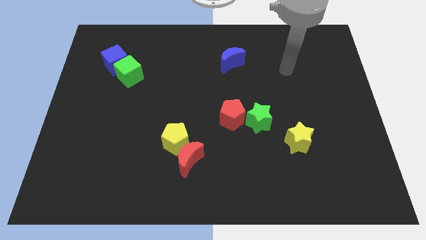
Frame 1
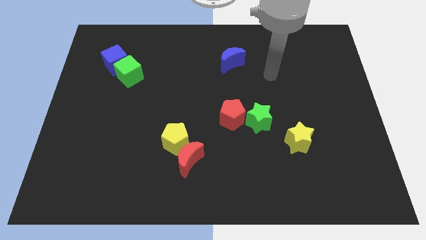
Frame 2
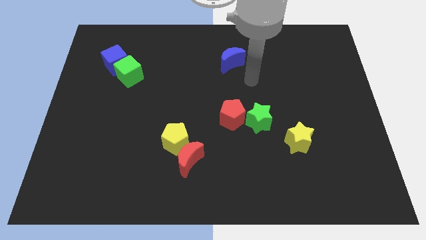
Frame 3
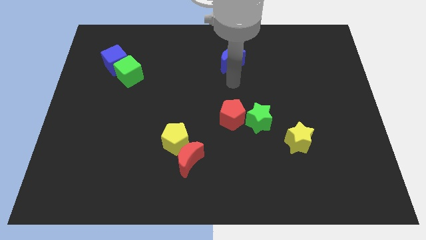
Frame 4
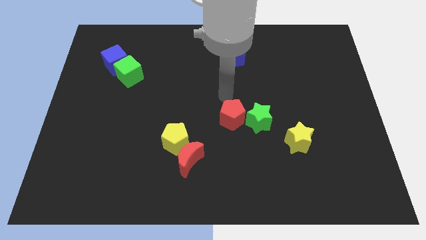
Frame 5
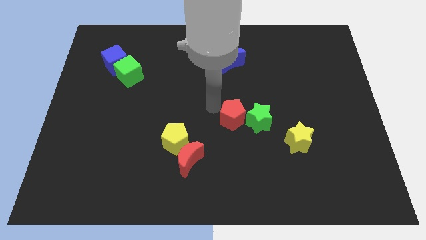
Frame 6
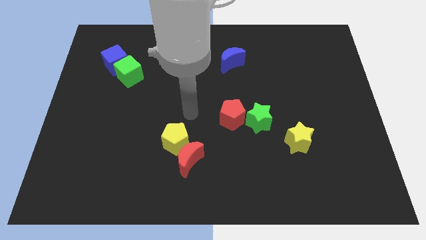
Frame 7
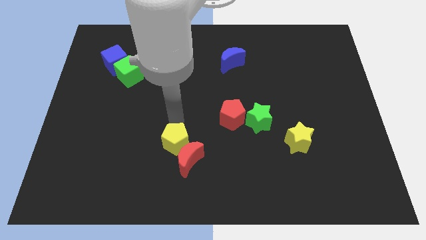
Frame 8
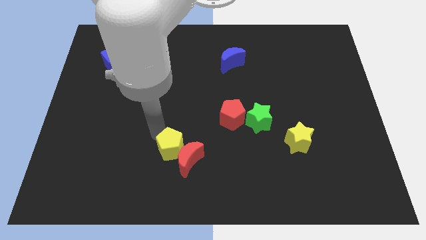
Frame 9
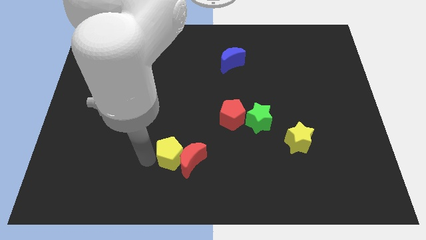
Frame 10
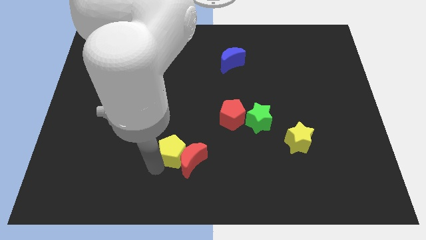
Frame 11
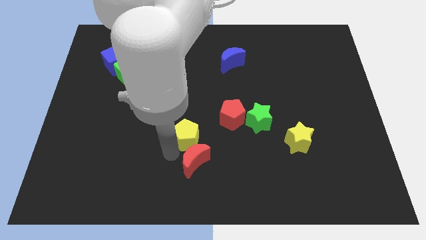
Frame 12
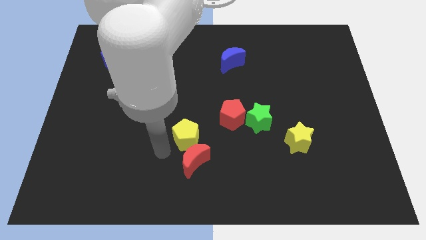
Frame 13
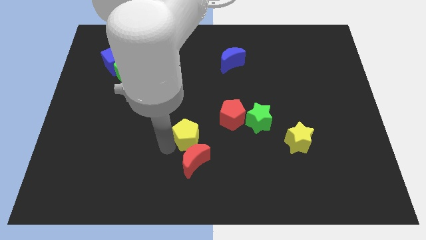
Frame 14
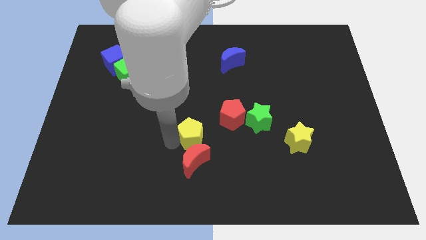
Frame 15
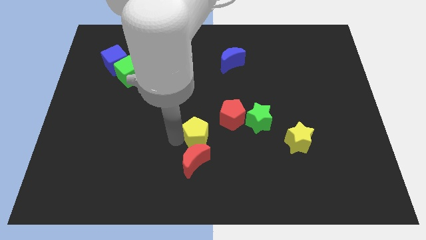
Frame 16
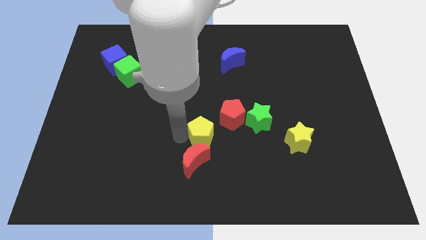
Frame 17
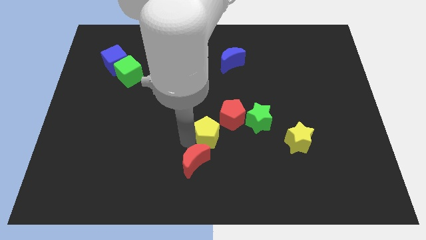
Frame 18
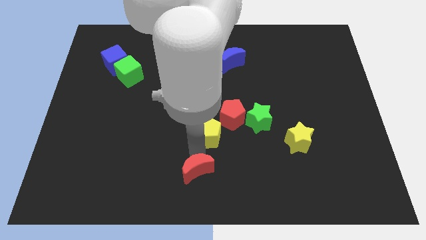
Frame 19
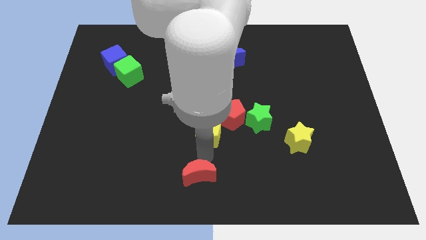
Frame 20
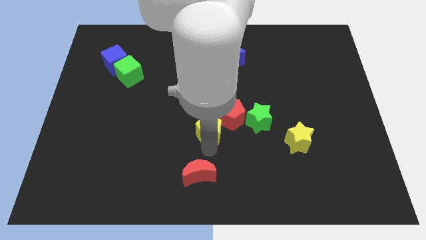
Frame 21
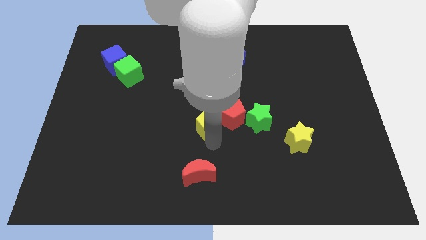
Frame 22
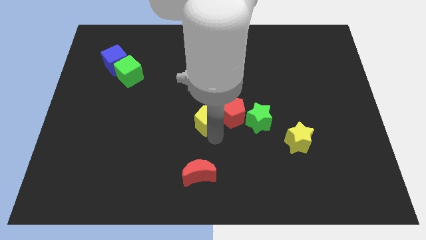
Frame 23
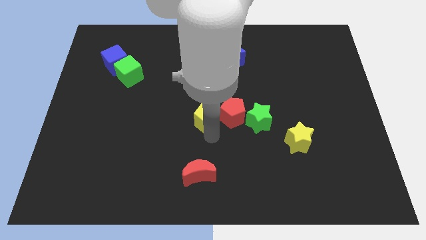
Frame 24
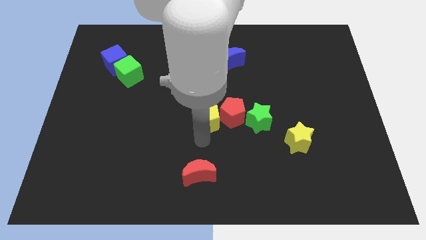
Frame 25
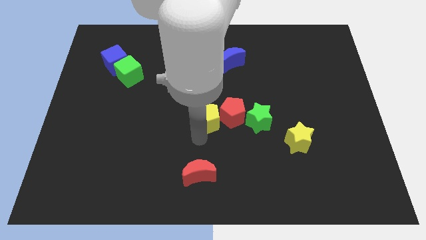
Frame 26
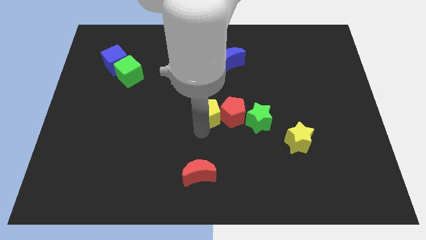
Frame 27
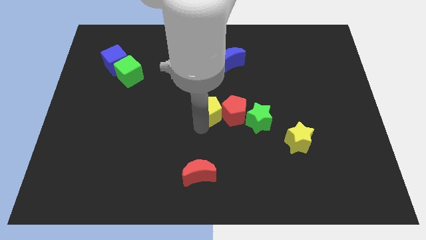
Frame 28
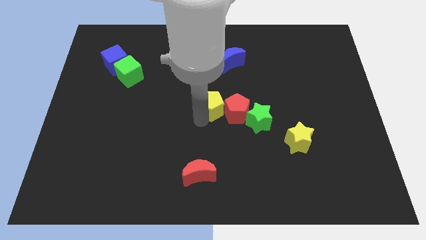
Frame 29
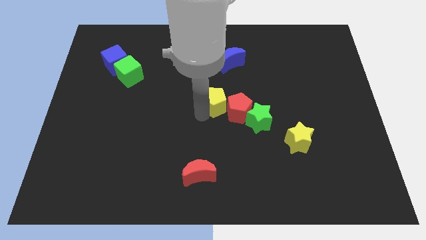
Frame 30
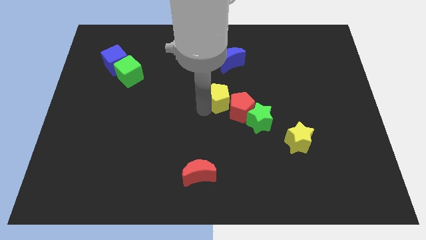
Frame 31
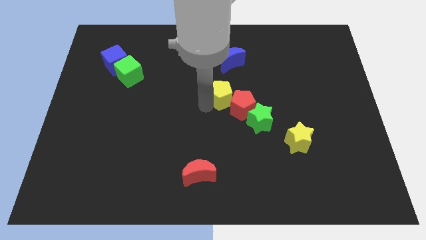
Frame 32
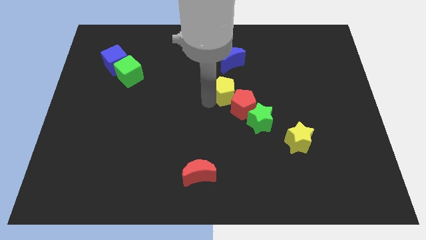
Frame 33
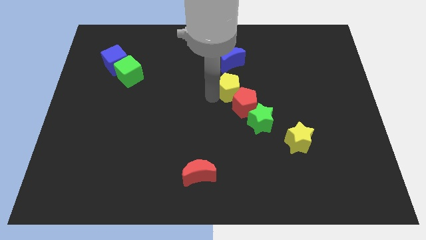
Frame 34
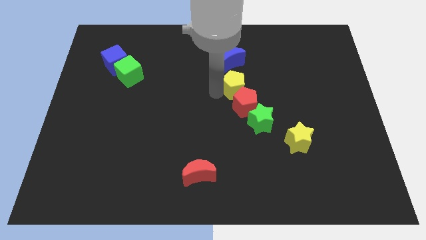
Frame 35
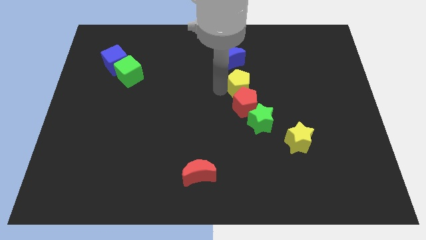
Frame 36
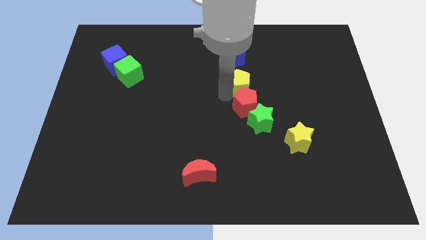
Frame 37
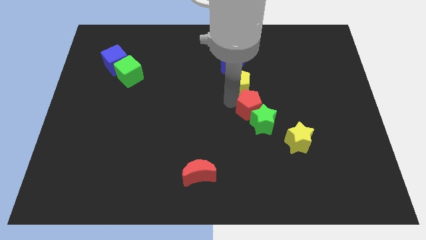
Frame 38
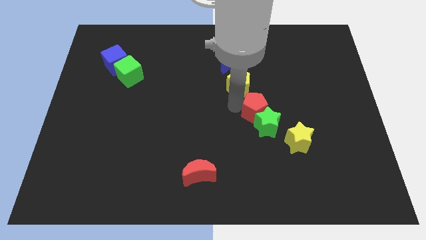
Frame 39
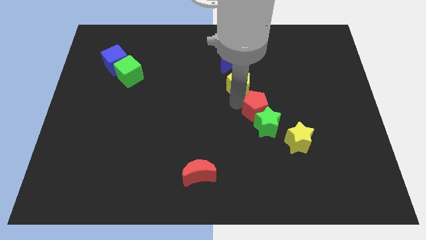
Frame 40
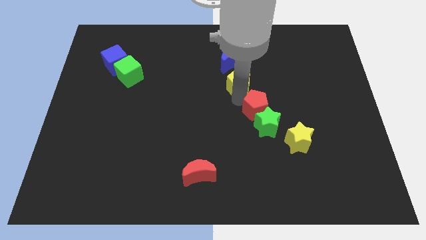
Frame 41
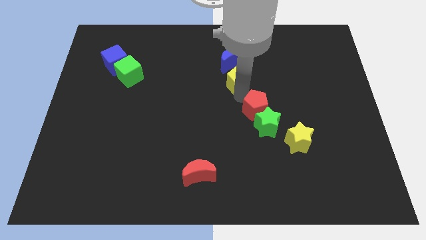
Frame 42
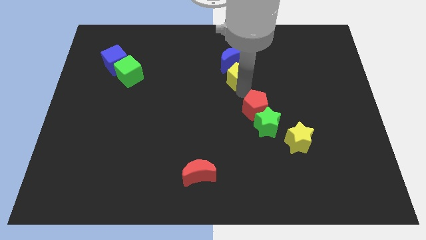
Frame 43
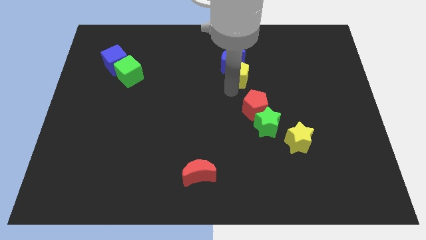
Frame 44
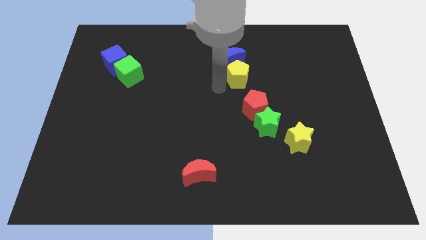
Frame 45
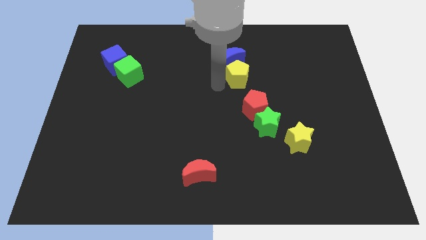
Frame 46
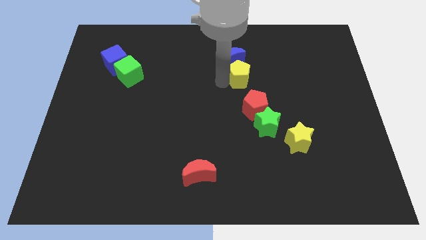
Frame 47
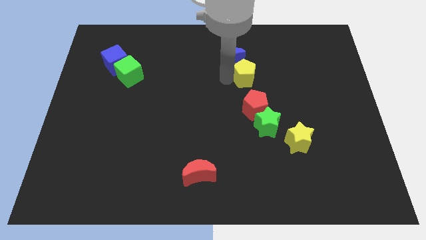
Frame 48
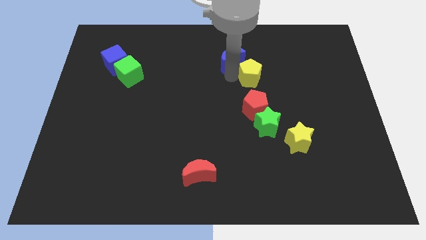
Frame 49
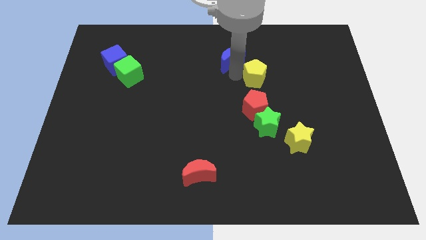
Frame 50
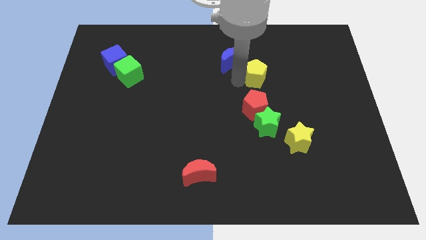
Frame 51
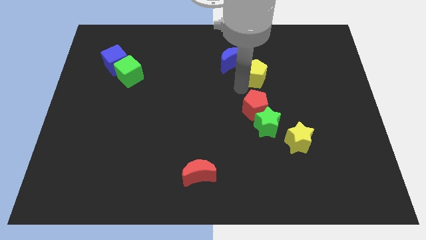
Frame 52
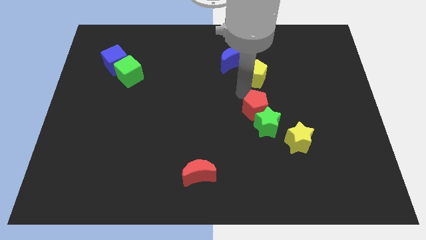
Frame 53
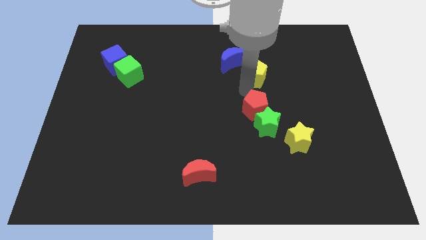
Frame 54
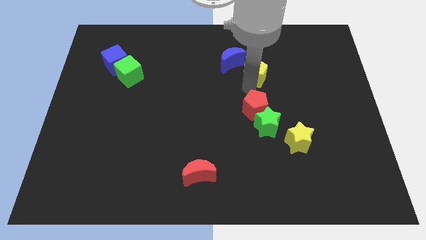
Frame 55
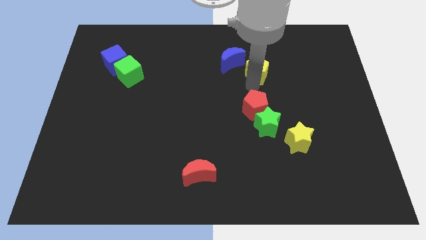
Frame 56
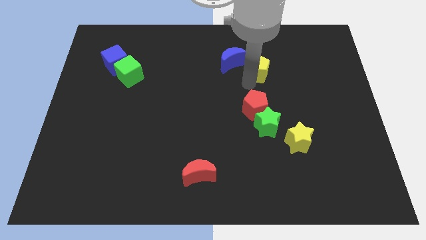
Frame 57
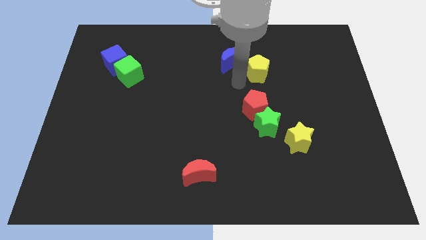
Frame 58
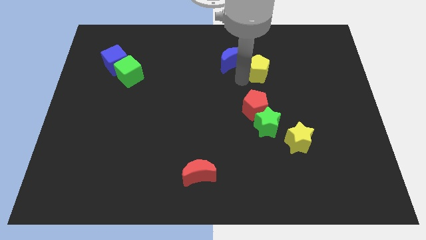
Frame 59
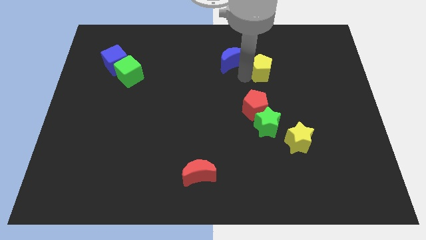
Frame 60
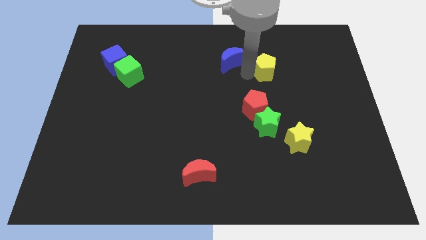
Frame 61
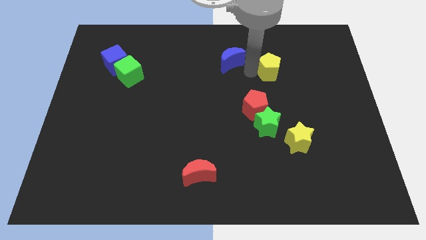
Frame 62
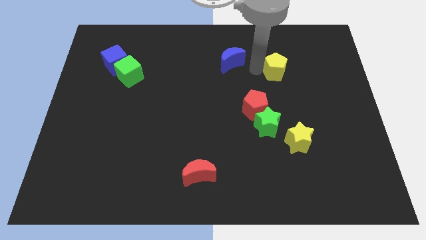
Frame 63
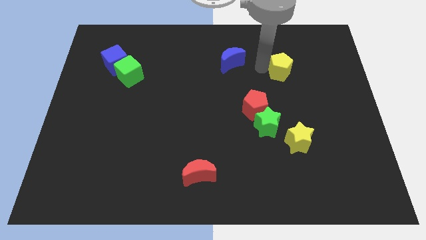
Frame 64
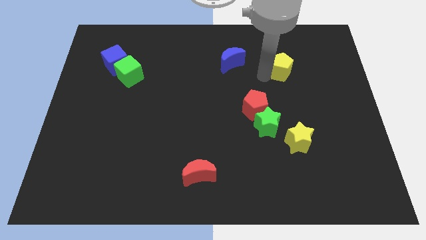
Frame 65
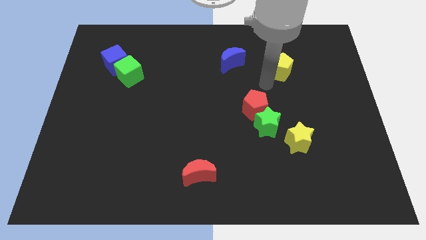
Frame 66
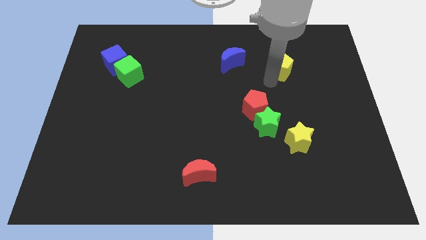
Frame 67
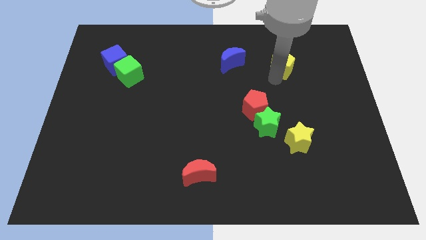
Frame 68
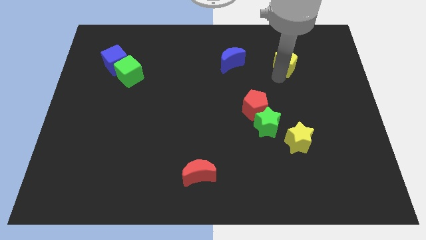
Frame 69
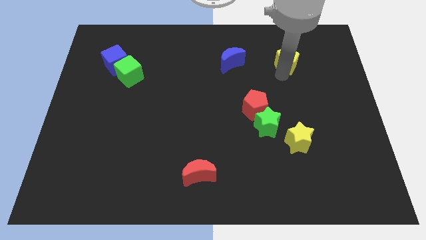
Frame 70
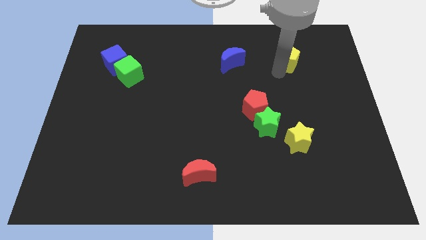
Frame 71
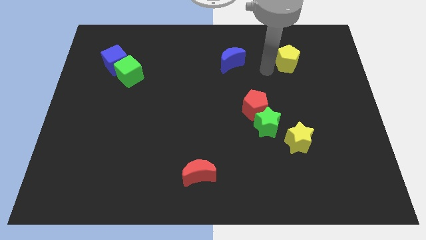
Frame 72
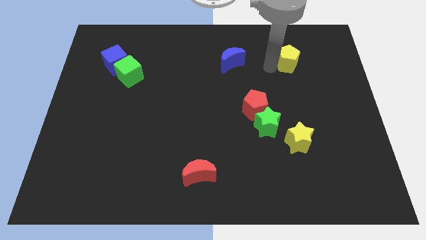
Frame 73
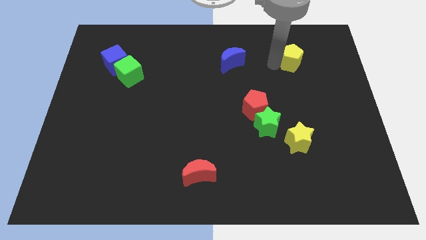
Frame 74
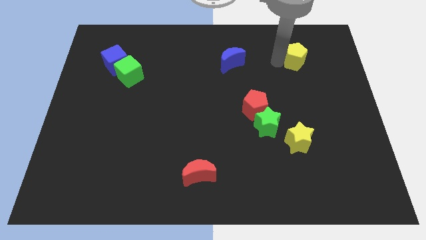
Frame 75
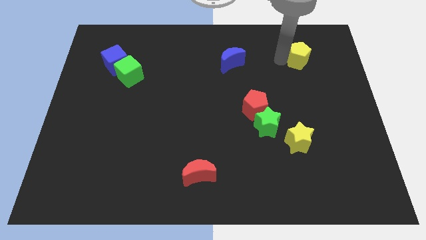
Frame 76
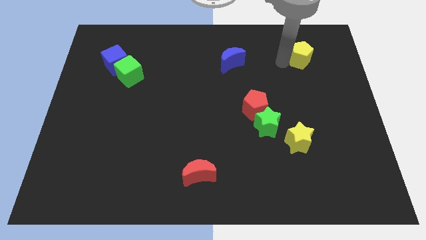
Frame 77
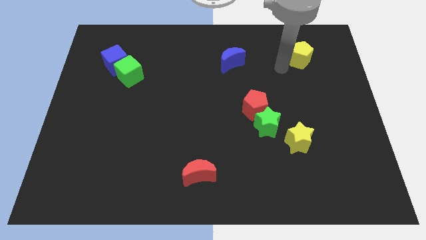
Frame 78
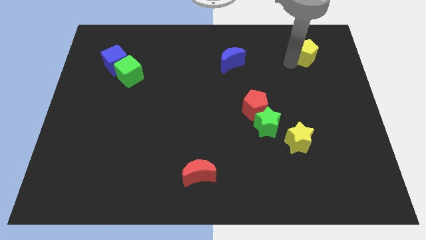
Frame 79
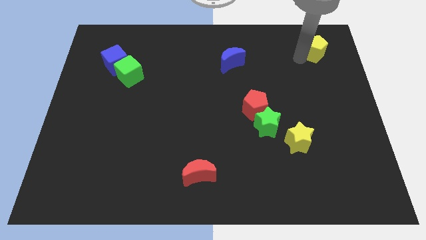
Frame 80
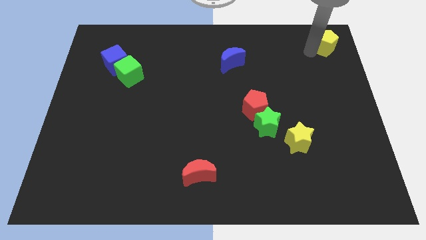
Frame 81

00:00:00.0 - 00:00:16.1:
slide the yellow pentagon to the top right corner
